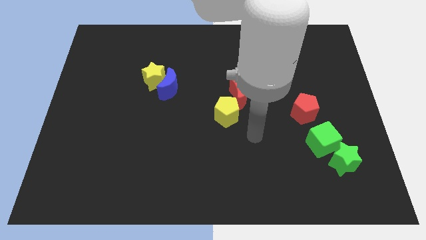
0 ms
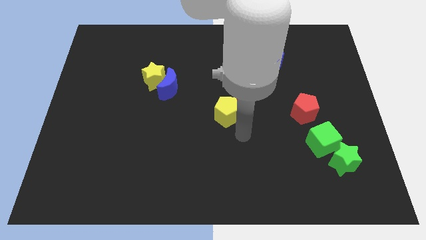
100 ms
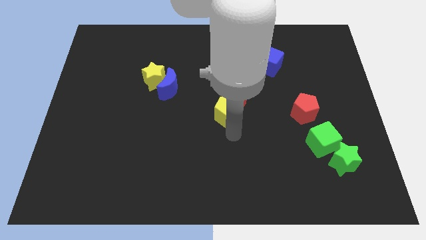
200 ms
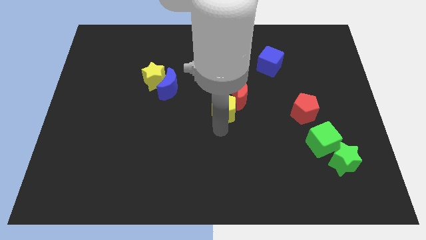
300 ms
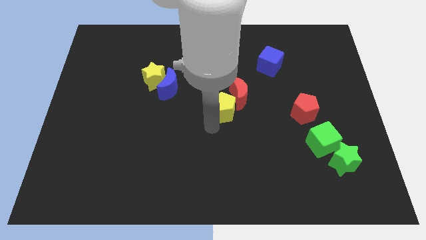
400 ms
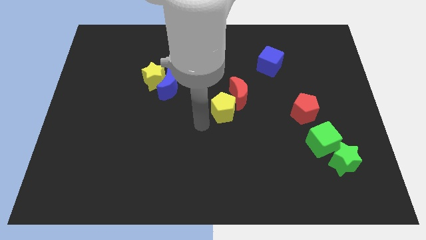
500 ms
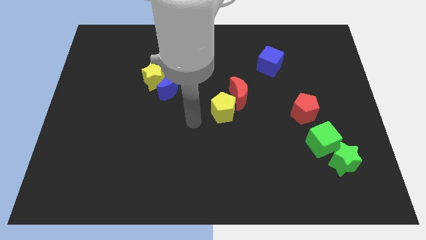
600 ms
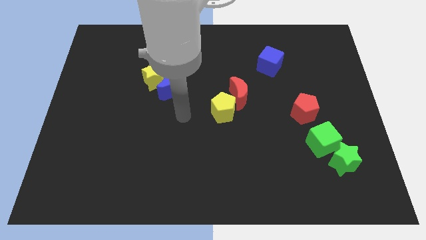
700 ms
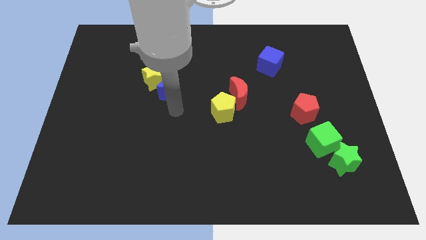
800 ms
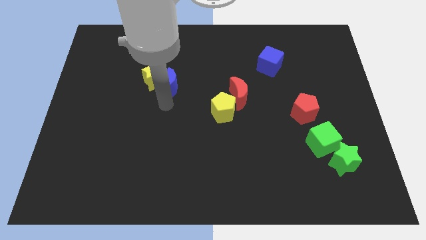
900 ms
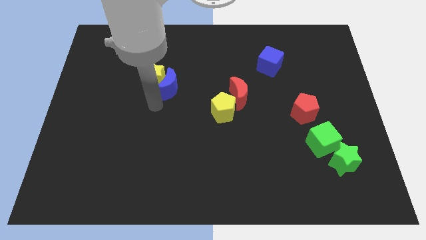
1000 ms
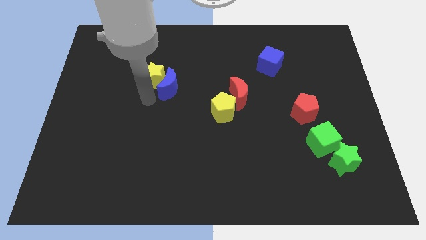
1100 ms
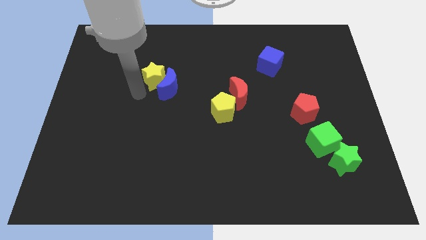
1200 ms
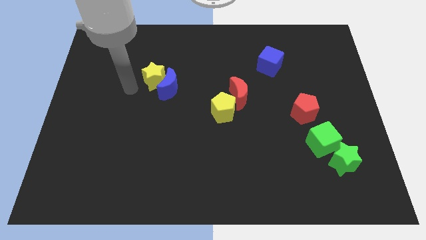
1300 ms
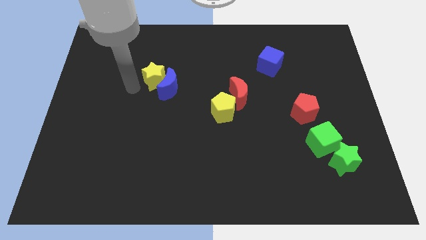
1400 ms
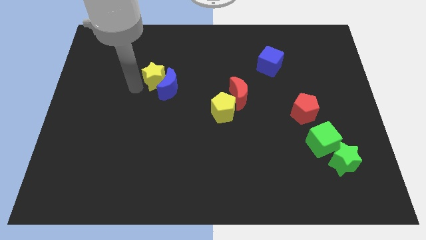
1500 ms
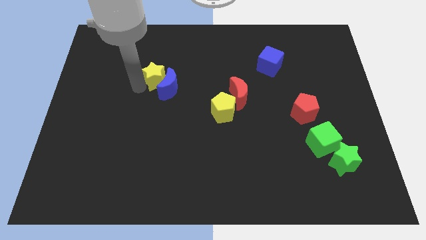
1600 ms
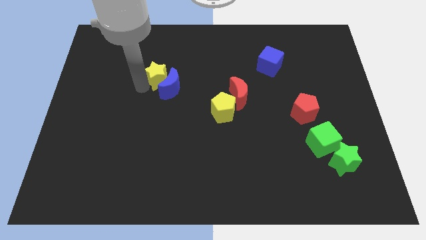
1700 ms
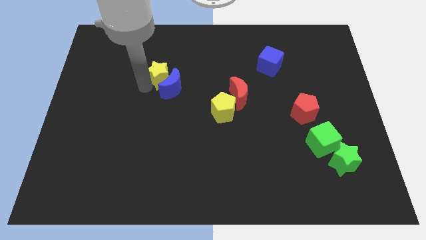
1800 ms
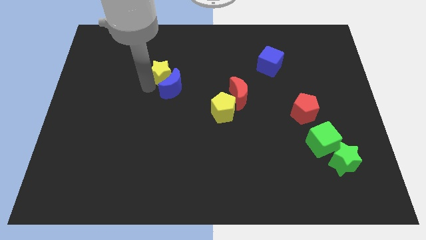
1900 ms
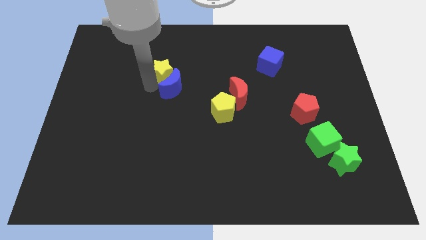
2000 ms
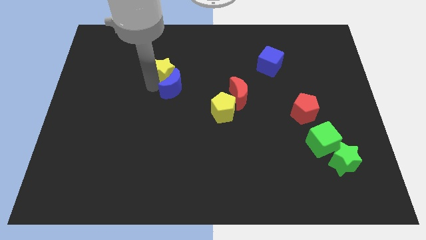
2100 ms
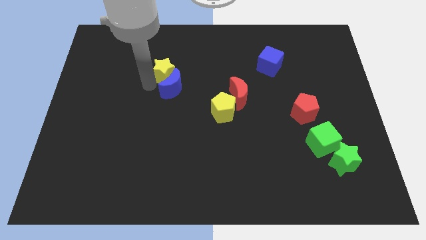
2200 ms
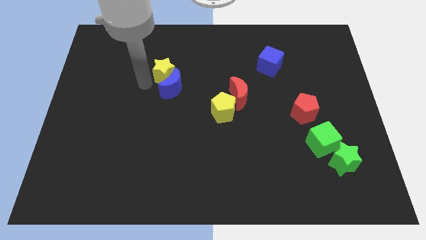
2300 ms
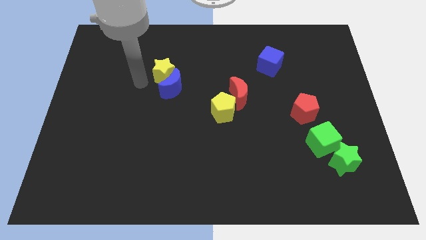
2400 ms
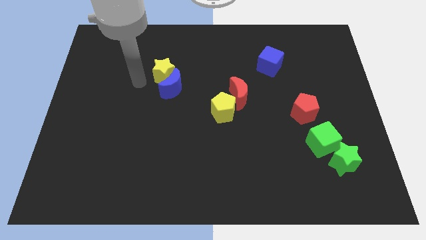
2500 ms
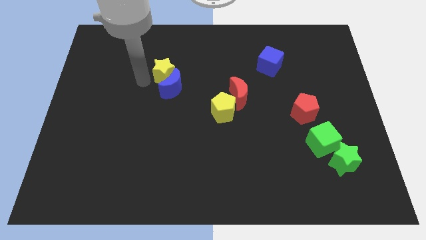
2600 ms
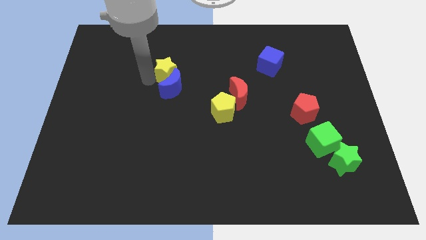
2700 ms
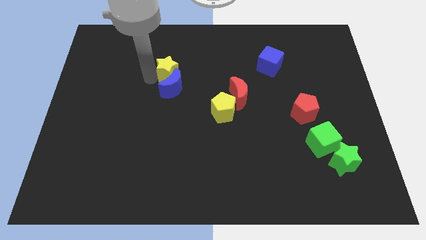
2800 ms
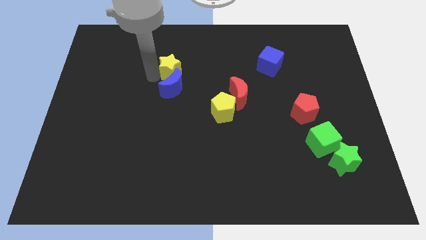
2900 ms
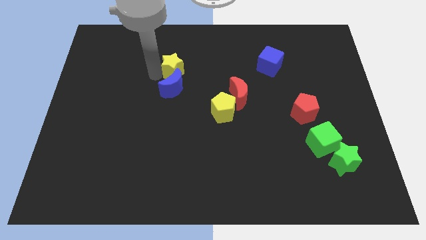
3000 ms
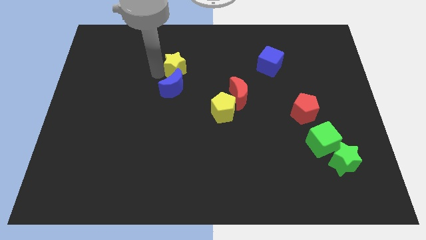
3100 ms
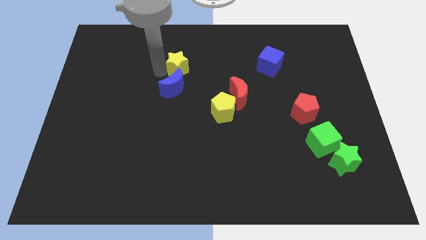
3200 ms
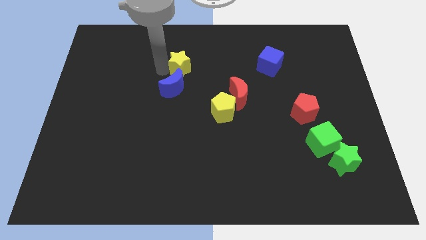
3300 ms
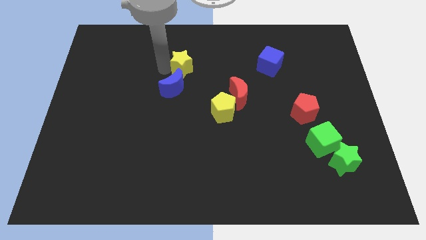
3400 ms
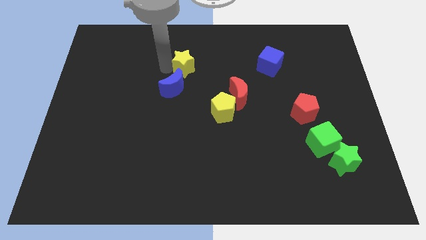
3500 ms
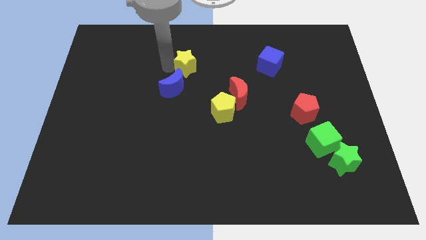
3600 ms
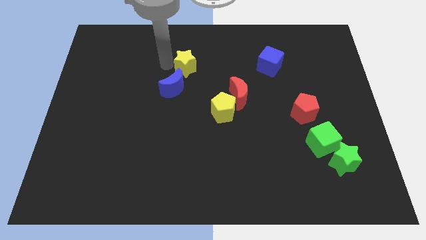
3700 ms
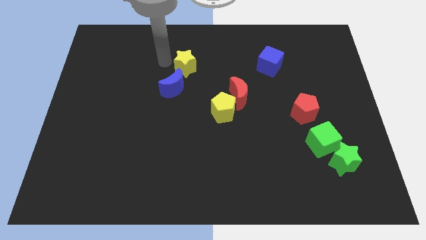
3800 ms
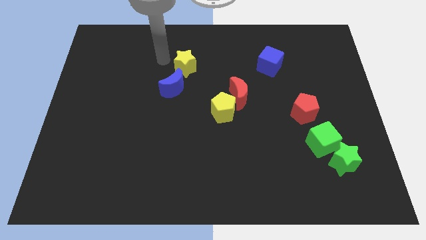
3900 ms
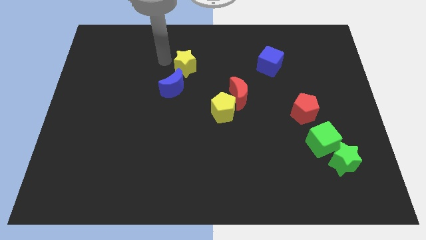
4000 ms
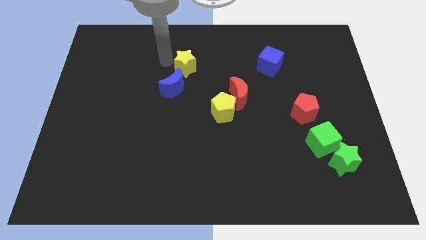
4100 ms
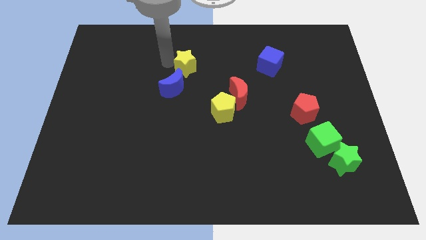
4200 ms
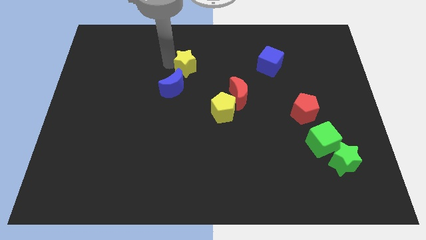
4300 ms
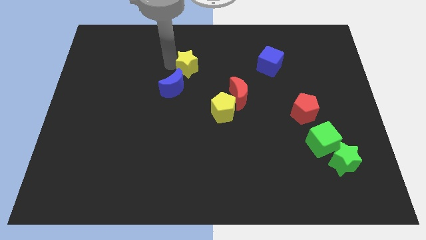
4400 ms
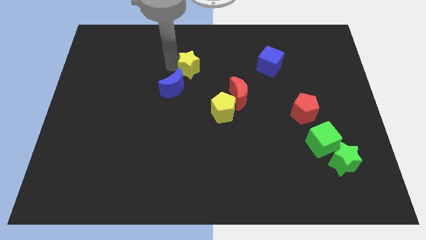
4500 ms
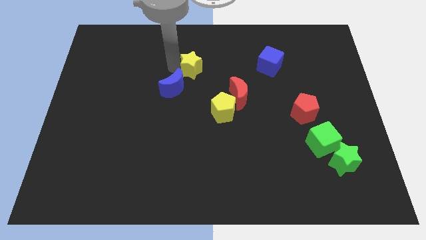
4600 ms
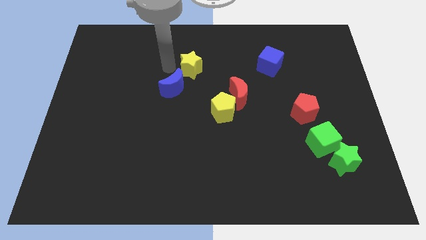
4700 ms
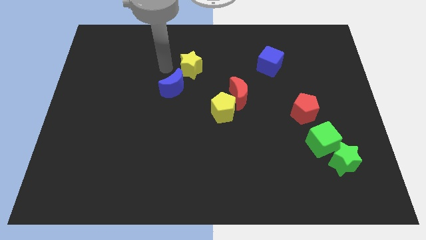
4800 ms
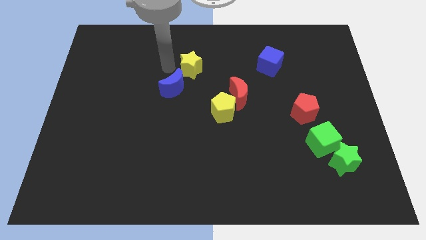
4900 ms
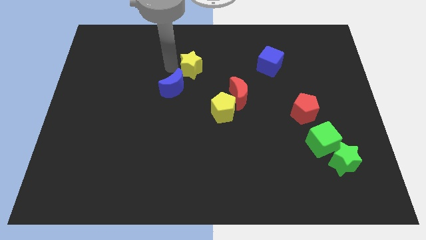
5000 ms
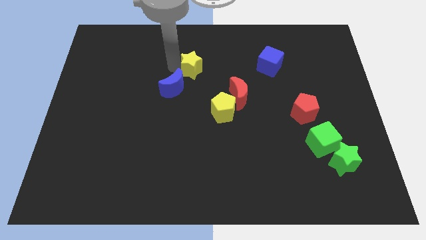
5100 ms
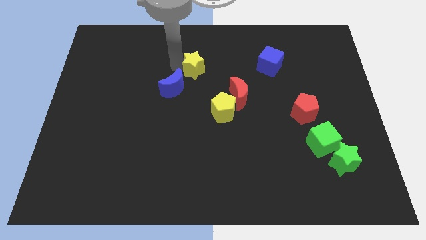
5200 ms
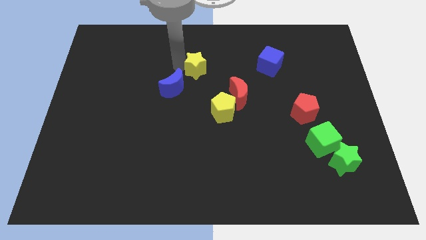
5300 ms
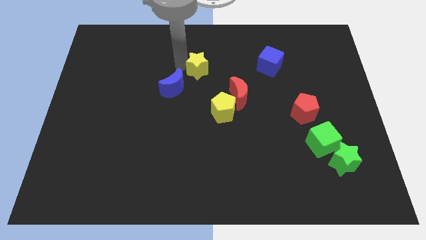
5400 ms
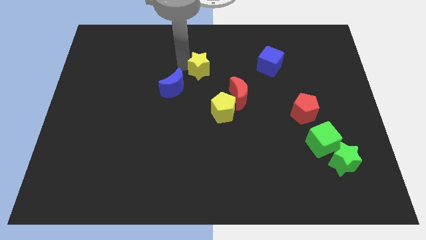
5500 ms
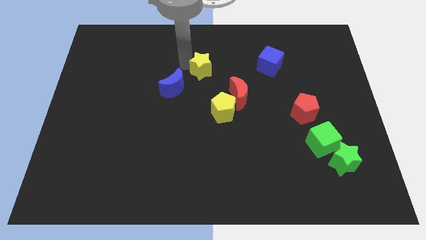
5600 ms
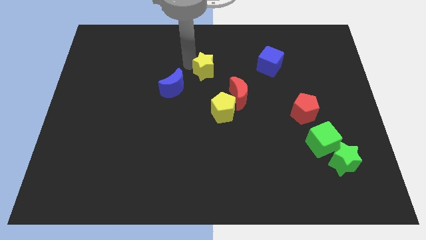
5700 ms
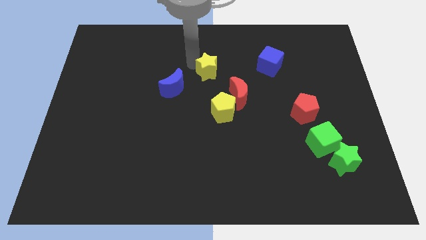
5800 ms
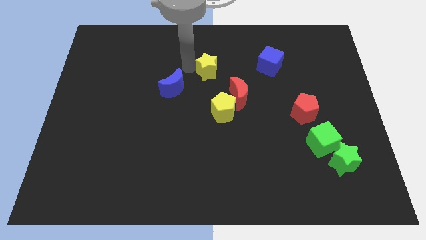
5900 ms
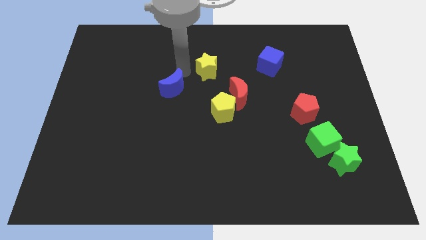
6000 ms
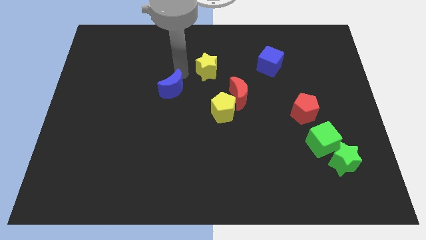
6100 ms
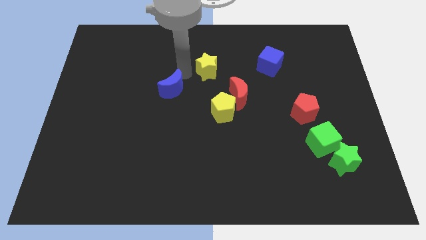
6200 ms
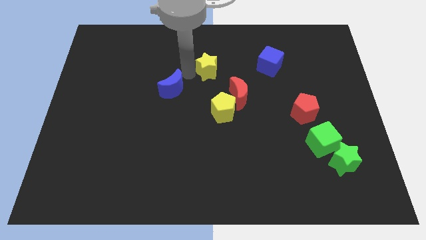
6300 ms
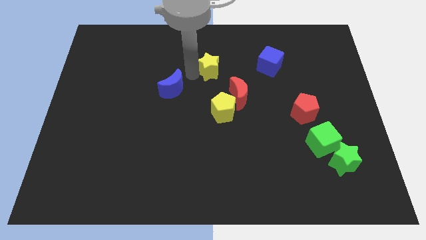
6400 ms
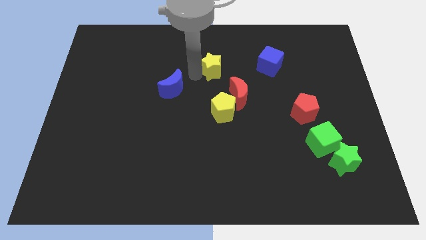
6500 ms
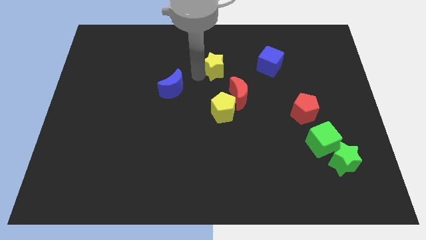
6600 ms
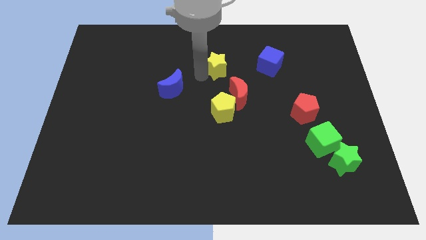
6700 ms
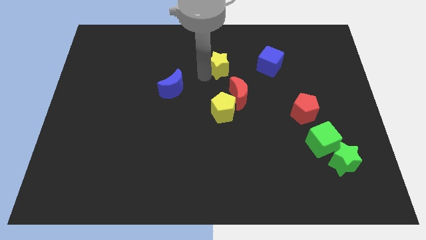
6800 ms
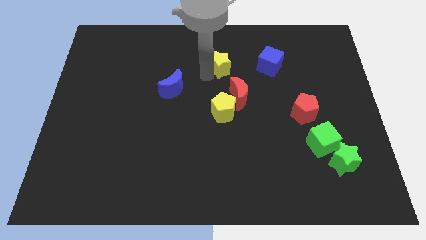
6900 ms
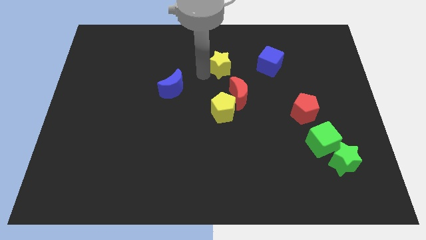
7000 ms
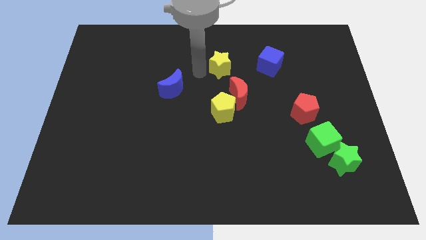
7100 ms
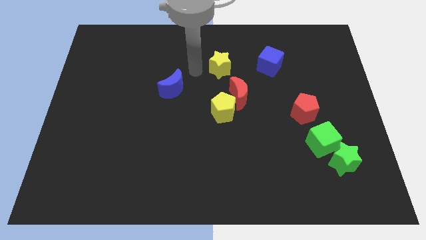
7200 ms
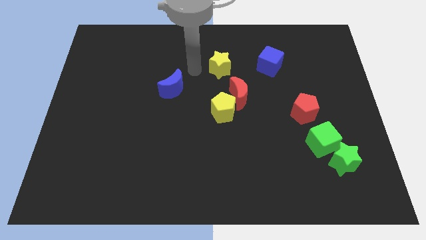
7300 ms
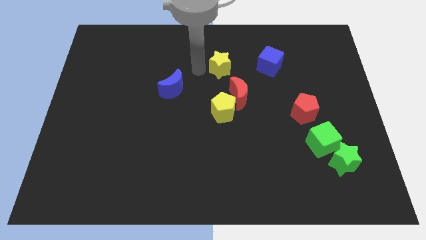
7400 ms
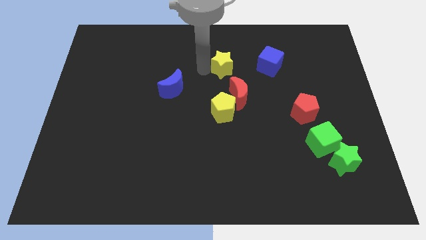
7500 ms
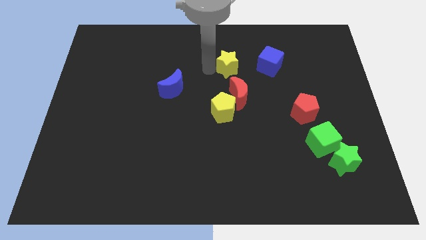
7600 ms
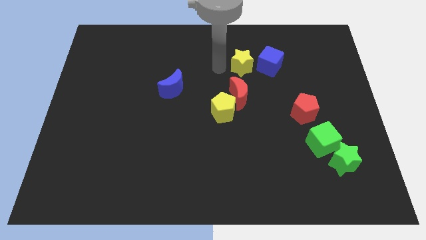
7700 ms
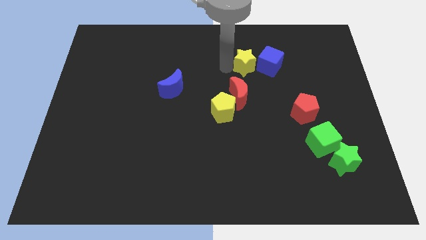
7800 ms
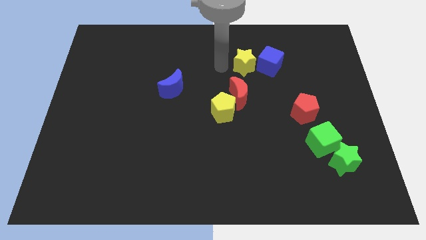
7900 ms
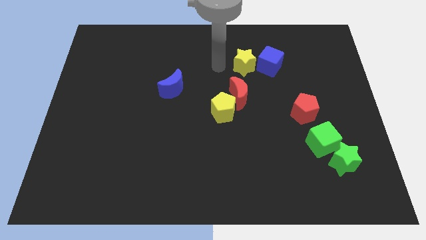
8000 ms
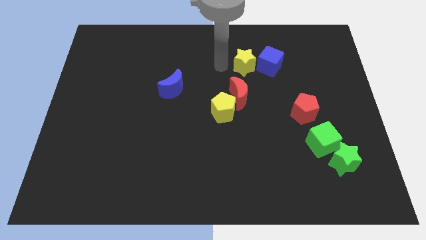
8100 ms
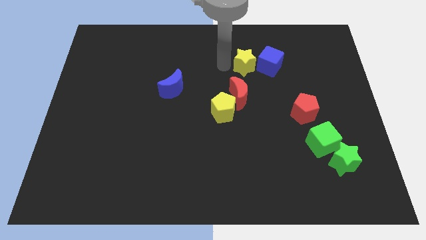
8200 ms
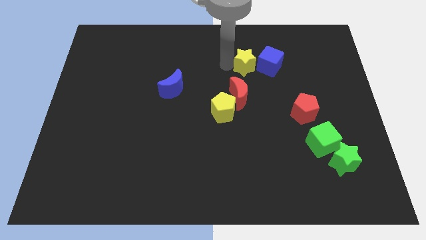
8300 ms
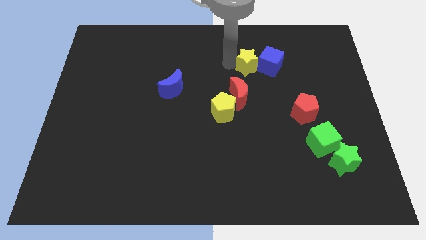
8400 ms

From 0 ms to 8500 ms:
slide the yellow star close to the blue cube
